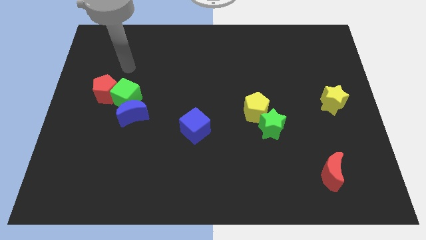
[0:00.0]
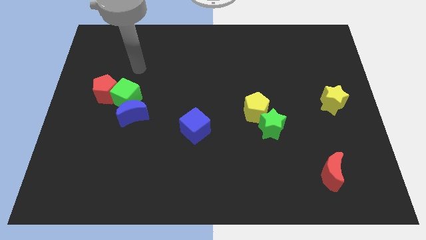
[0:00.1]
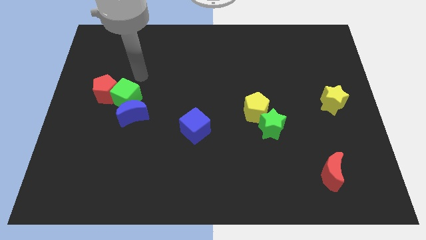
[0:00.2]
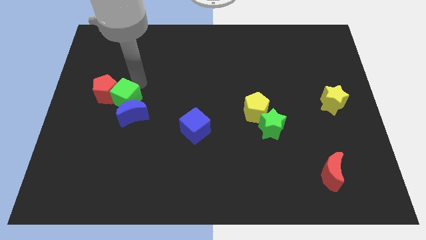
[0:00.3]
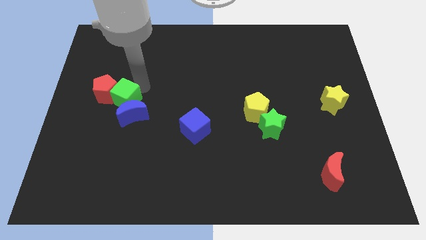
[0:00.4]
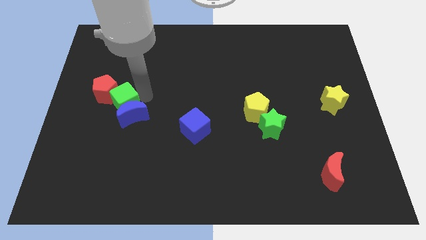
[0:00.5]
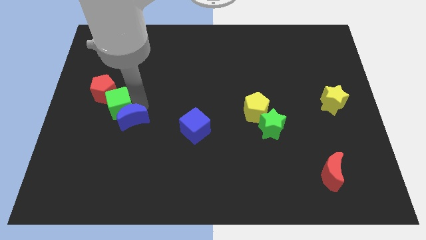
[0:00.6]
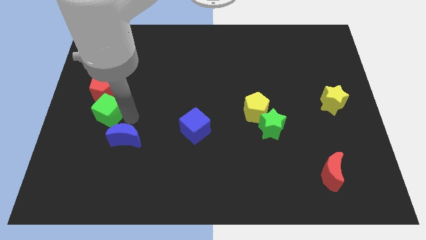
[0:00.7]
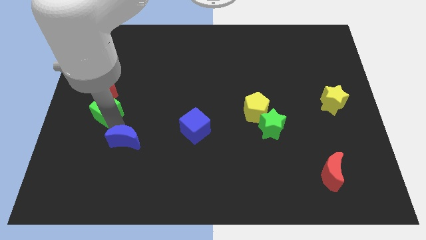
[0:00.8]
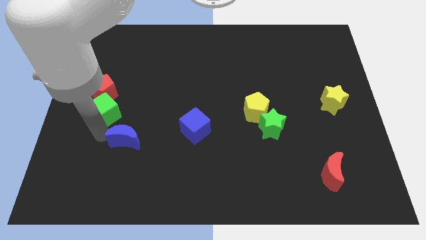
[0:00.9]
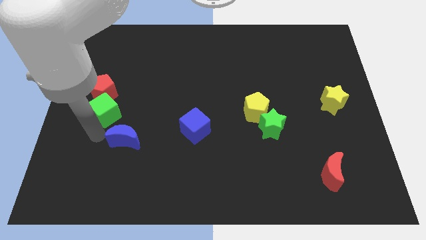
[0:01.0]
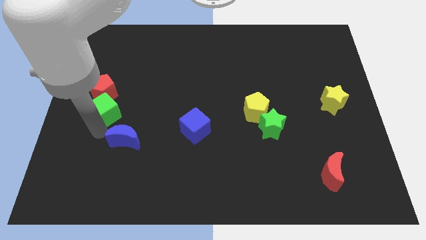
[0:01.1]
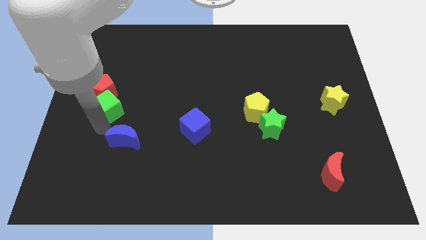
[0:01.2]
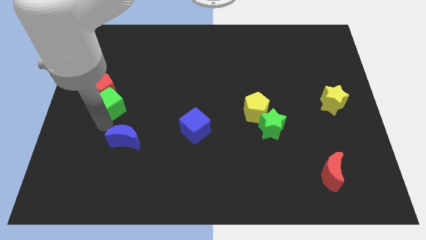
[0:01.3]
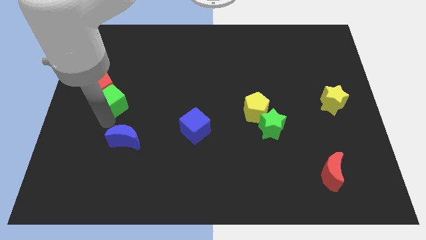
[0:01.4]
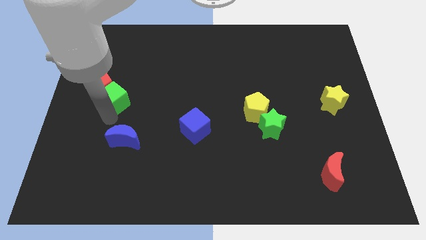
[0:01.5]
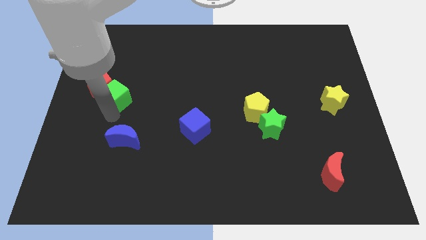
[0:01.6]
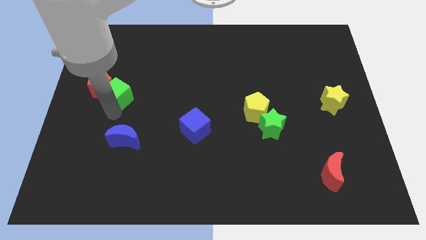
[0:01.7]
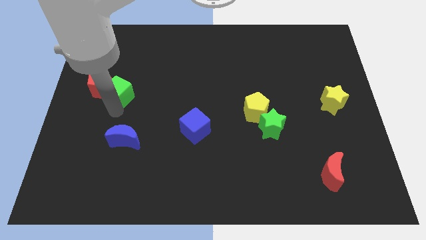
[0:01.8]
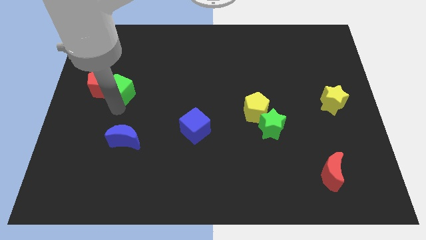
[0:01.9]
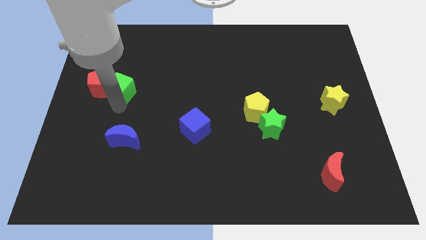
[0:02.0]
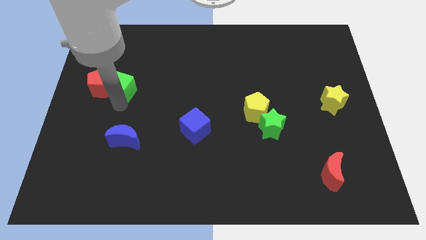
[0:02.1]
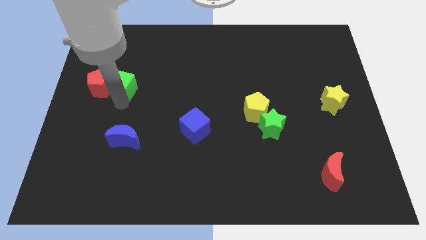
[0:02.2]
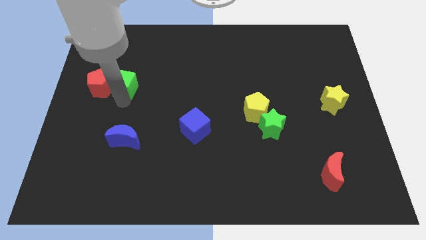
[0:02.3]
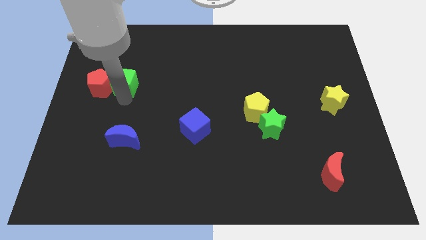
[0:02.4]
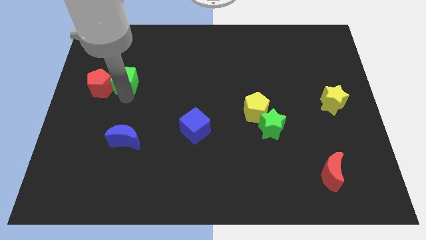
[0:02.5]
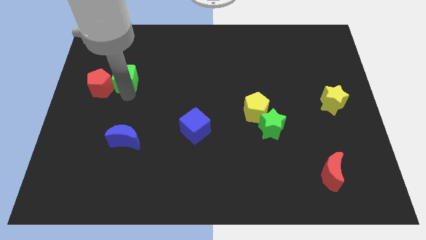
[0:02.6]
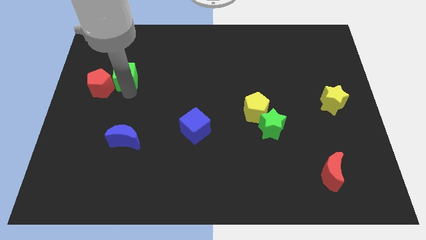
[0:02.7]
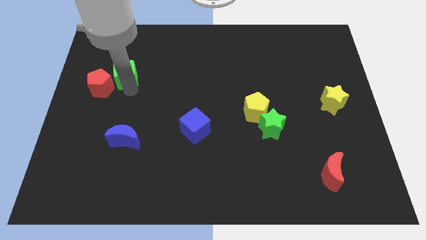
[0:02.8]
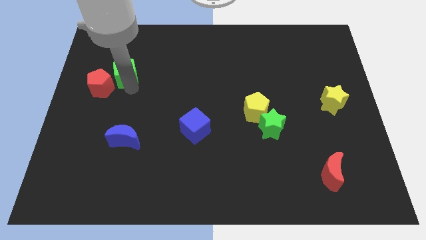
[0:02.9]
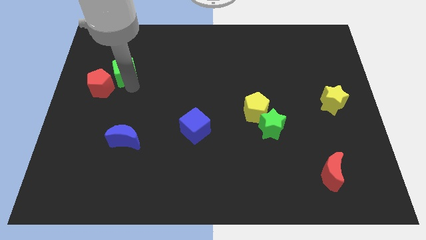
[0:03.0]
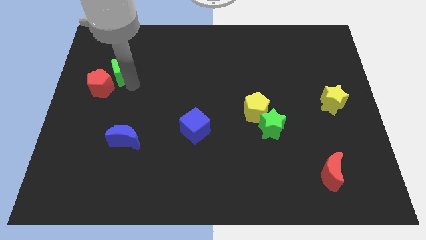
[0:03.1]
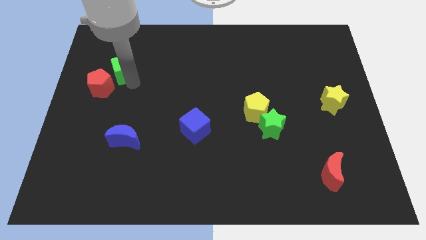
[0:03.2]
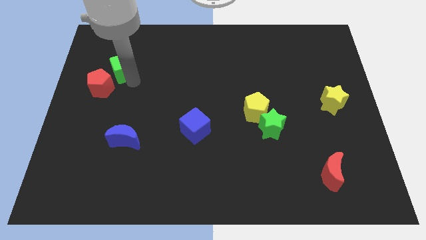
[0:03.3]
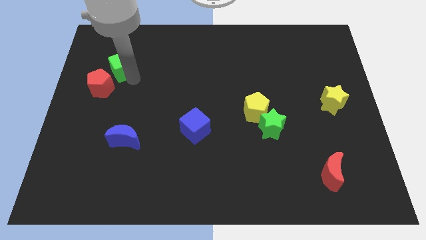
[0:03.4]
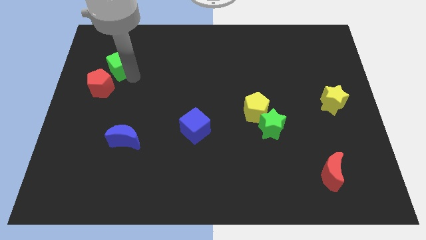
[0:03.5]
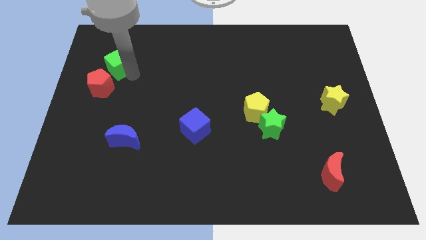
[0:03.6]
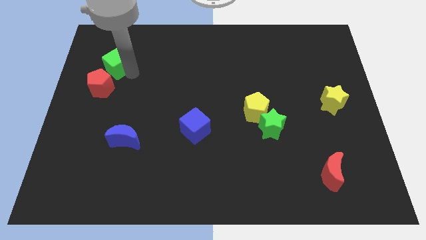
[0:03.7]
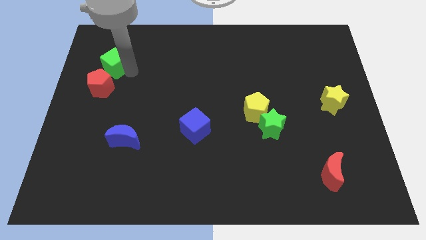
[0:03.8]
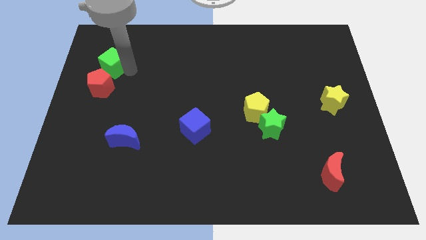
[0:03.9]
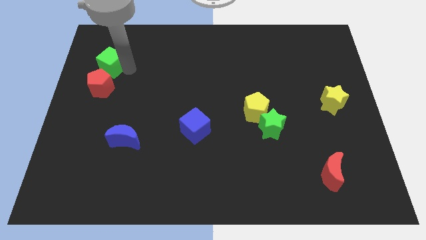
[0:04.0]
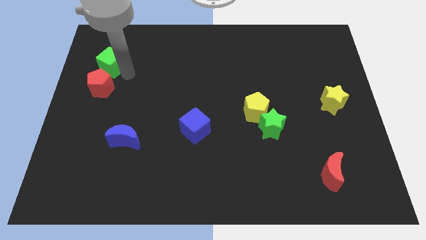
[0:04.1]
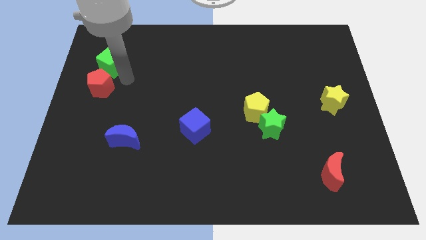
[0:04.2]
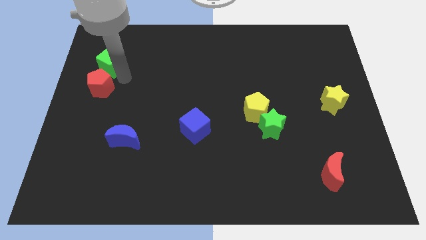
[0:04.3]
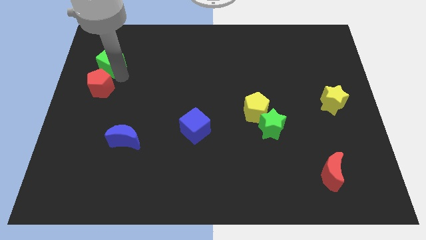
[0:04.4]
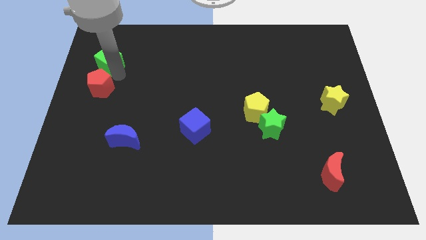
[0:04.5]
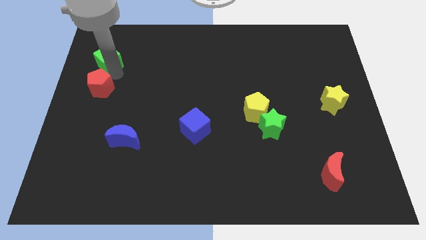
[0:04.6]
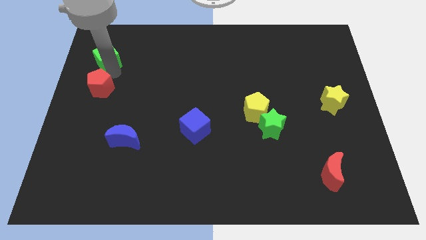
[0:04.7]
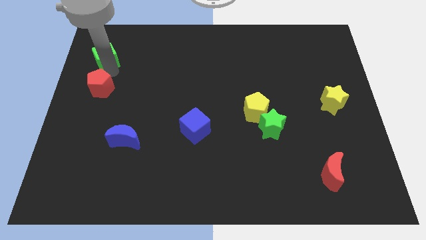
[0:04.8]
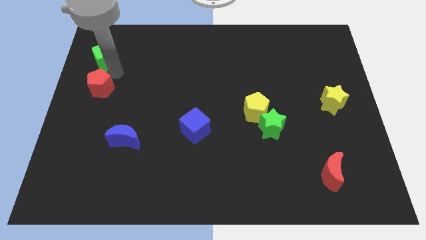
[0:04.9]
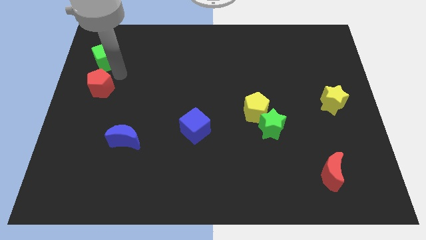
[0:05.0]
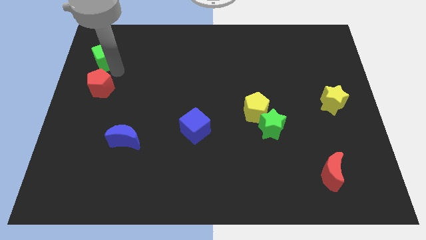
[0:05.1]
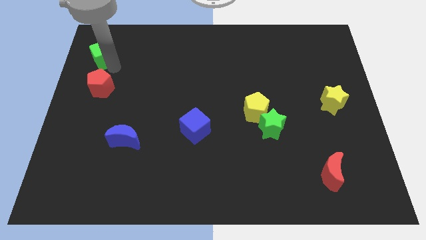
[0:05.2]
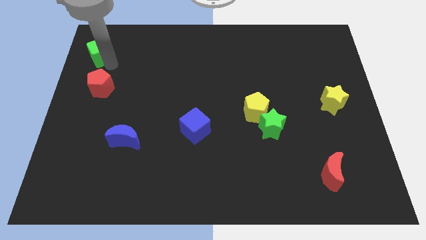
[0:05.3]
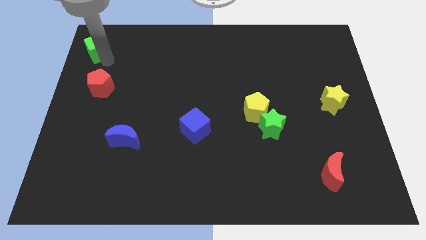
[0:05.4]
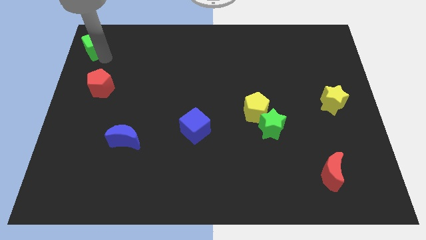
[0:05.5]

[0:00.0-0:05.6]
push the green cube to the top left corner
